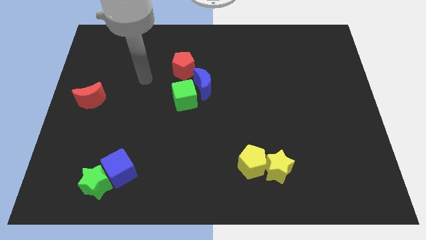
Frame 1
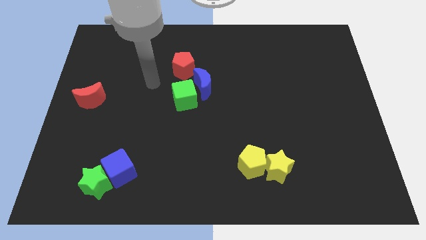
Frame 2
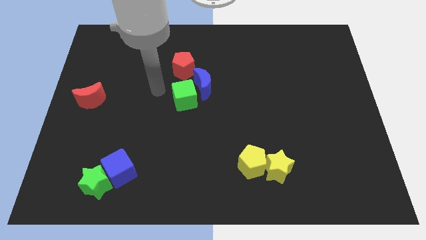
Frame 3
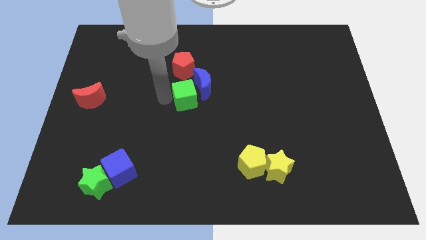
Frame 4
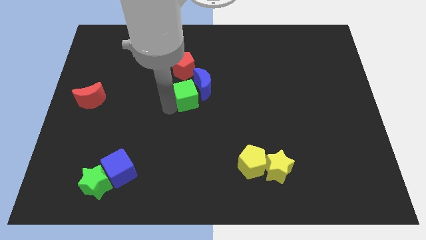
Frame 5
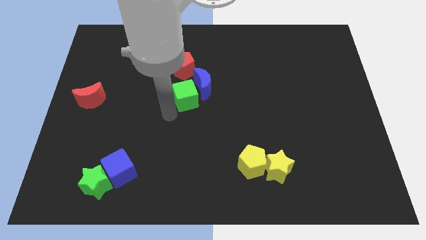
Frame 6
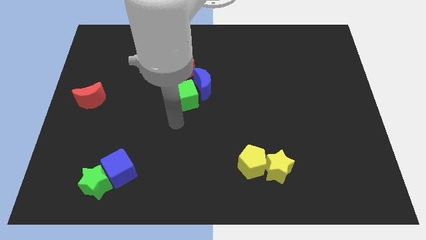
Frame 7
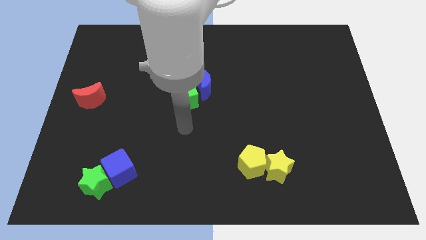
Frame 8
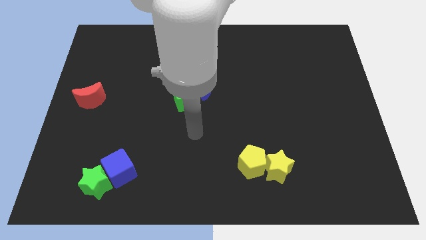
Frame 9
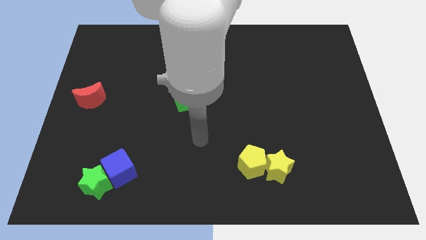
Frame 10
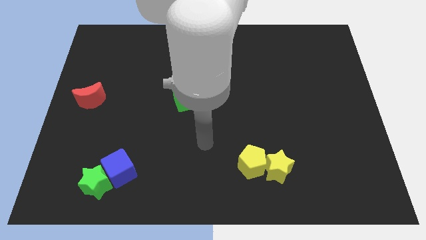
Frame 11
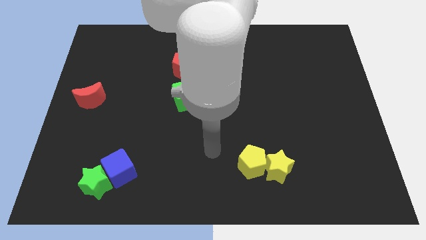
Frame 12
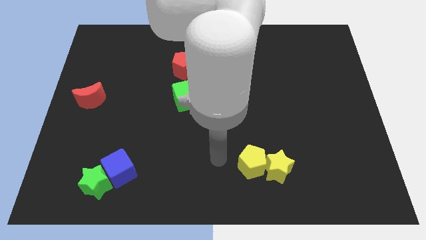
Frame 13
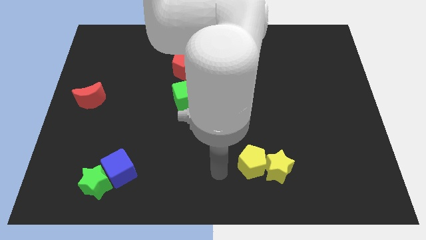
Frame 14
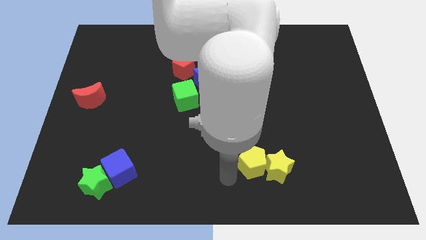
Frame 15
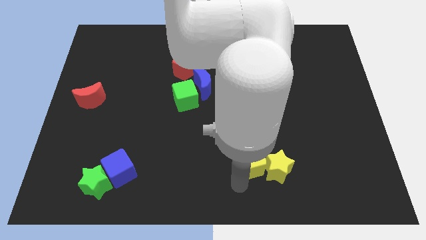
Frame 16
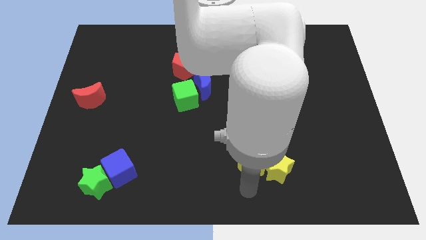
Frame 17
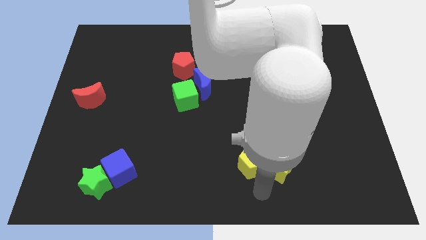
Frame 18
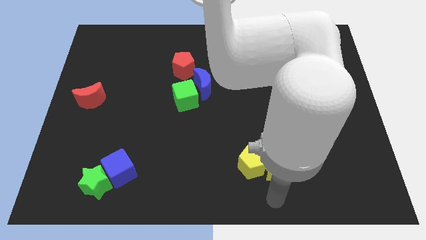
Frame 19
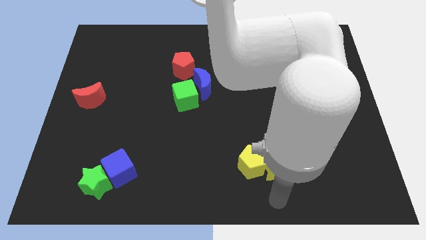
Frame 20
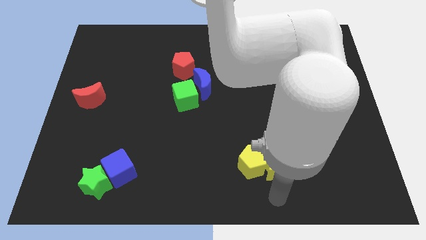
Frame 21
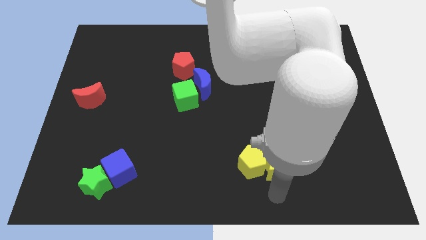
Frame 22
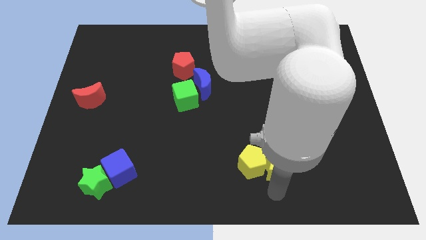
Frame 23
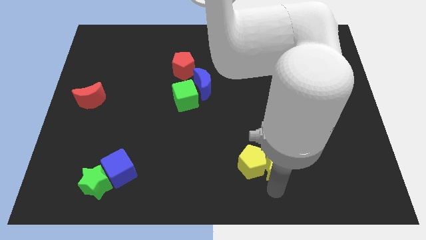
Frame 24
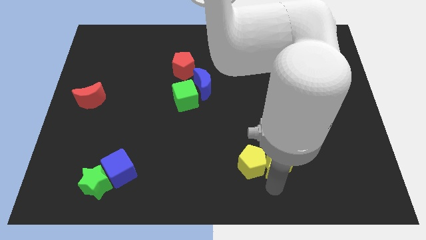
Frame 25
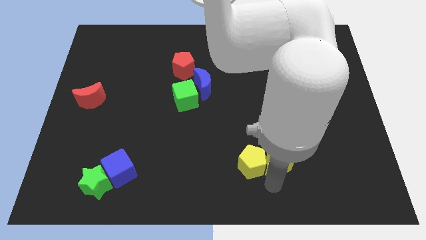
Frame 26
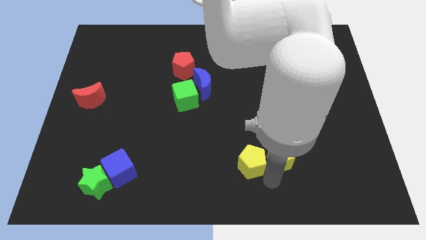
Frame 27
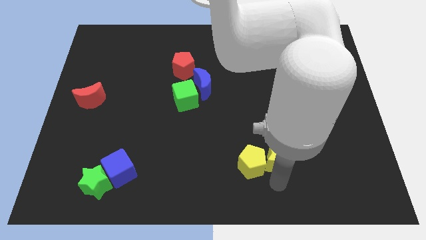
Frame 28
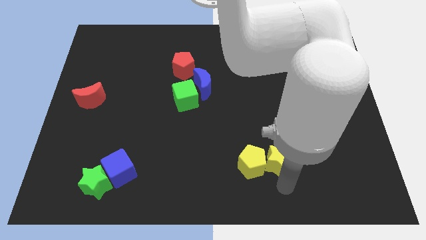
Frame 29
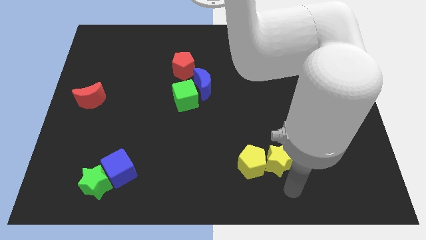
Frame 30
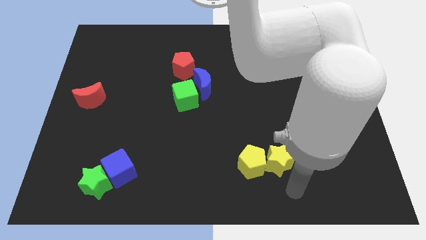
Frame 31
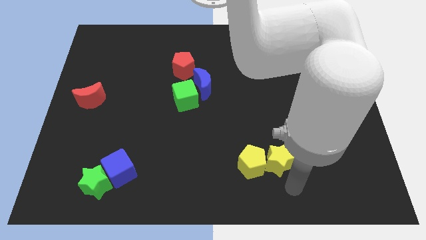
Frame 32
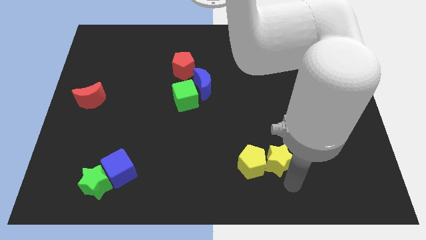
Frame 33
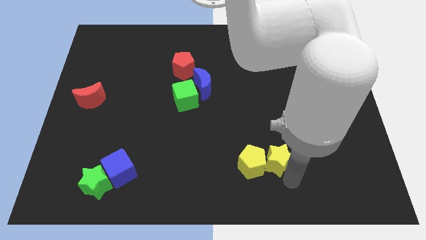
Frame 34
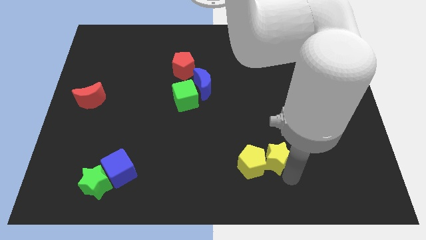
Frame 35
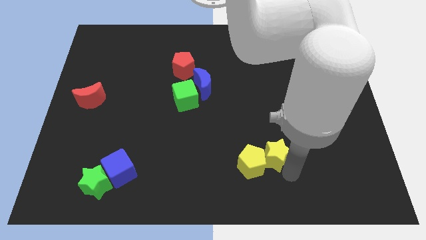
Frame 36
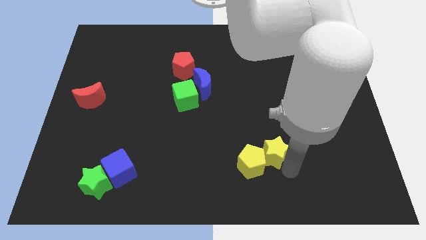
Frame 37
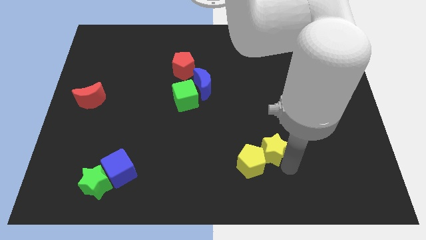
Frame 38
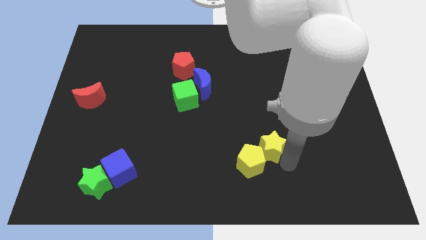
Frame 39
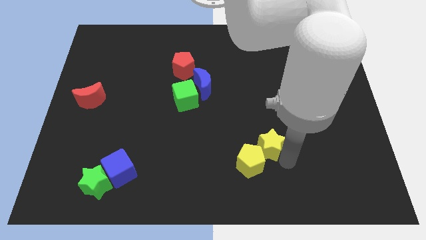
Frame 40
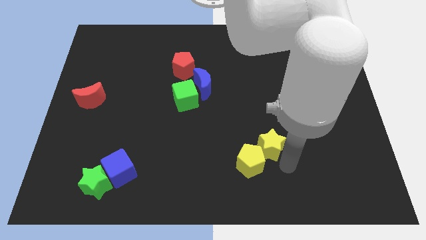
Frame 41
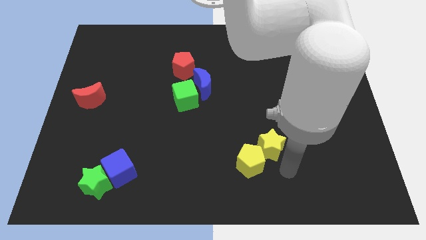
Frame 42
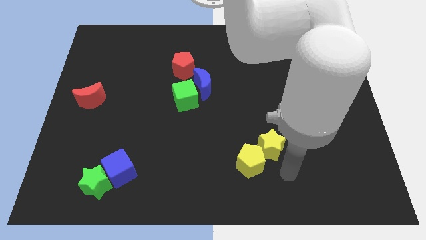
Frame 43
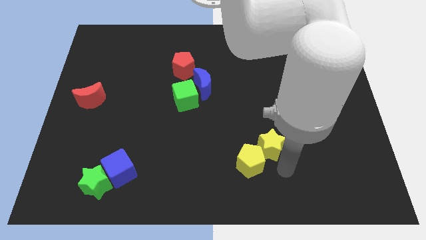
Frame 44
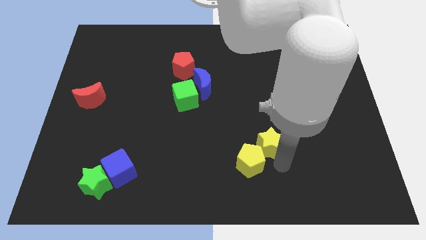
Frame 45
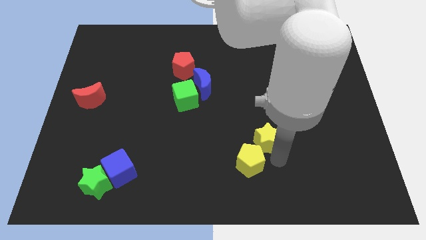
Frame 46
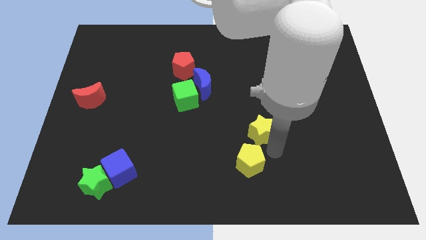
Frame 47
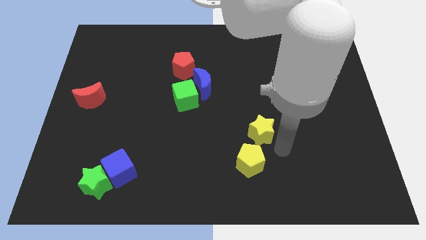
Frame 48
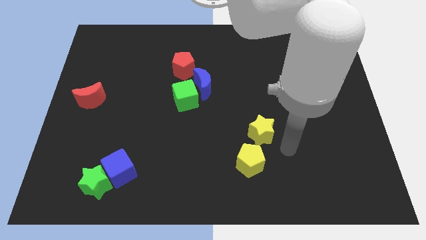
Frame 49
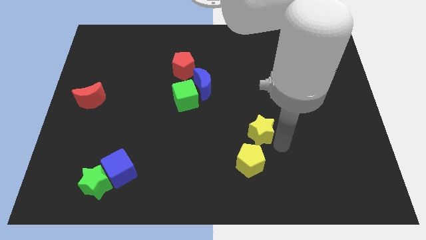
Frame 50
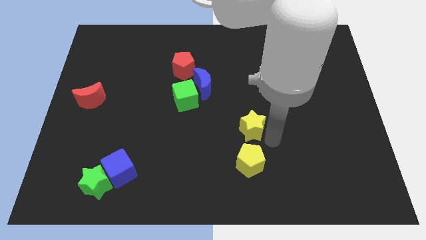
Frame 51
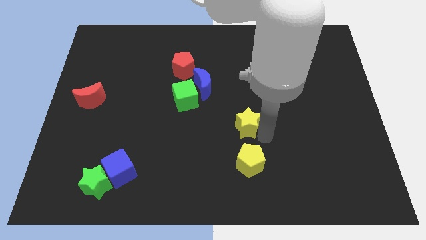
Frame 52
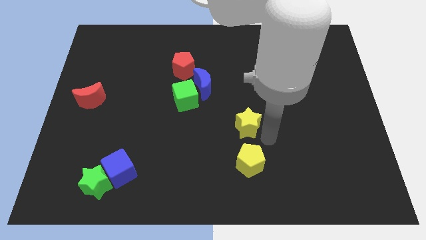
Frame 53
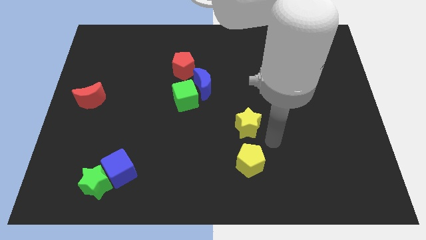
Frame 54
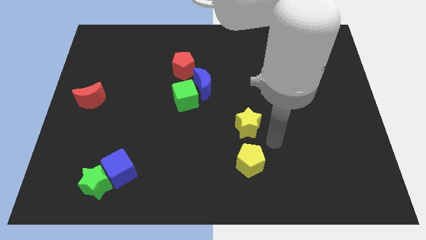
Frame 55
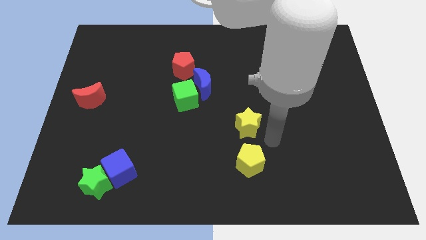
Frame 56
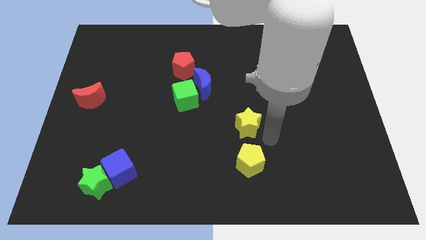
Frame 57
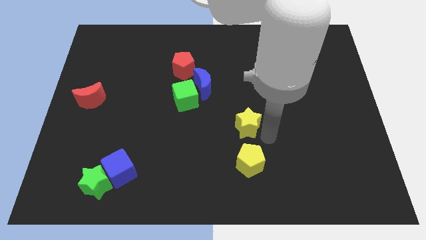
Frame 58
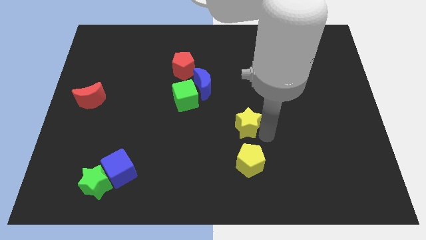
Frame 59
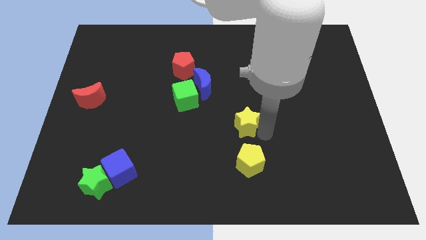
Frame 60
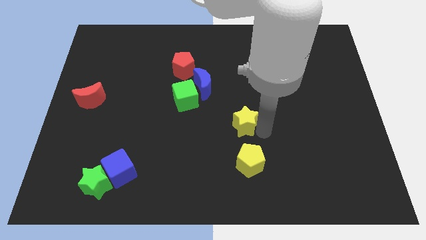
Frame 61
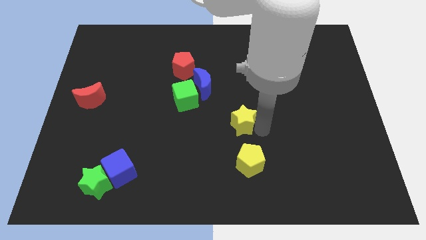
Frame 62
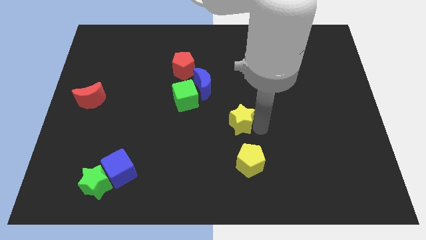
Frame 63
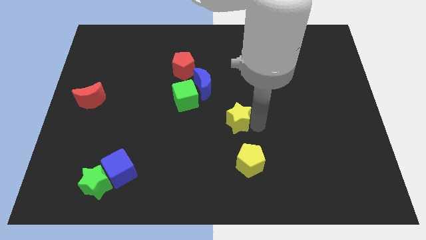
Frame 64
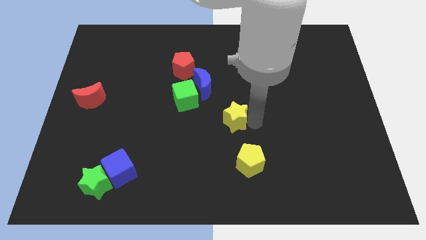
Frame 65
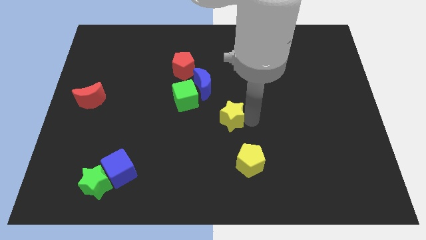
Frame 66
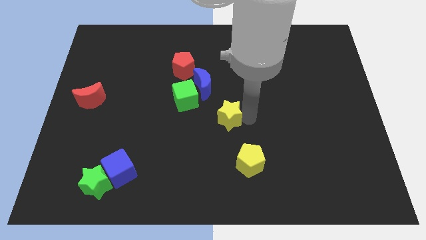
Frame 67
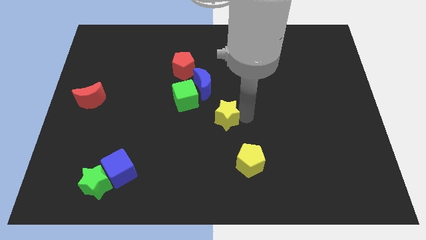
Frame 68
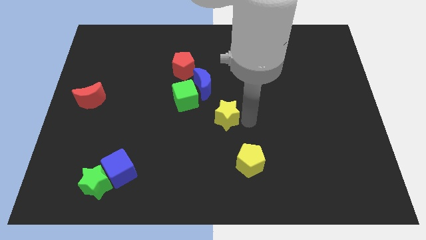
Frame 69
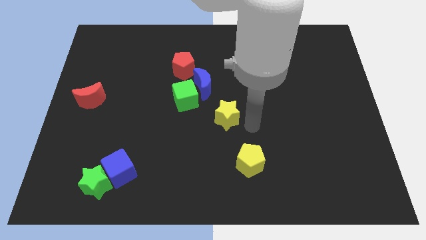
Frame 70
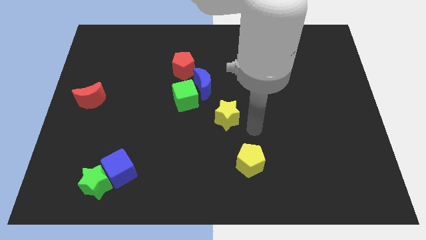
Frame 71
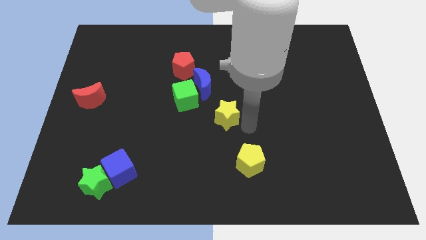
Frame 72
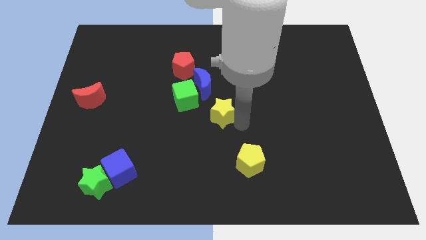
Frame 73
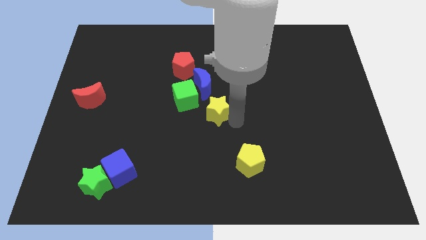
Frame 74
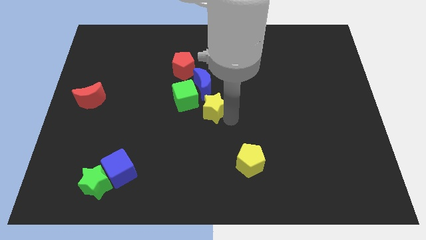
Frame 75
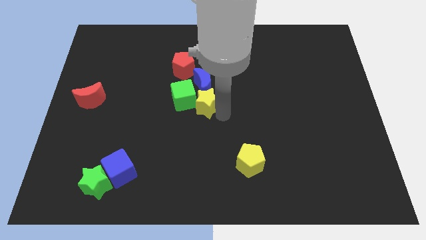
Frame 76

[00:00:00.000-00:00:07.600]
push the yellow star to the green cube
